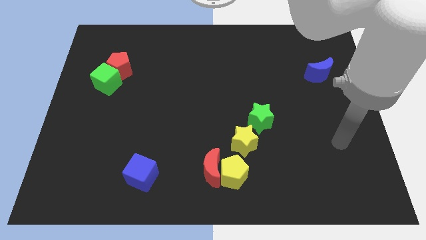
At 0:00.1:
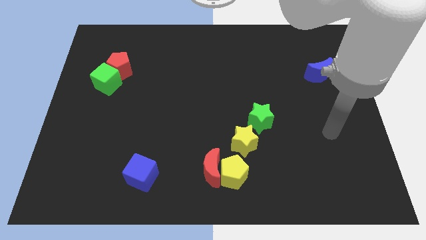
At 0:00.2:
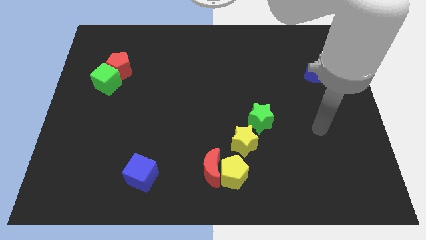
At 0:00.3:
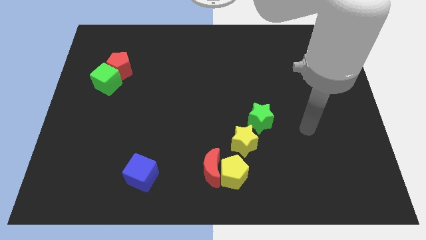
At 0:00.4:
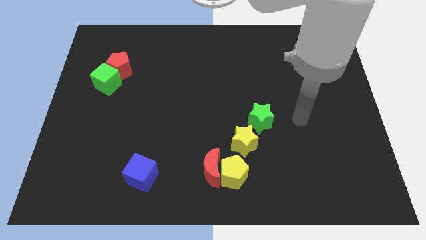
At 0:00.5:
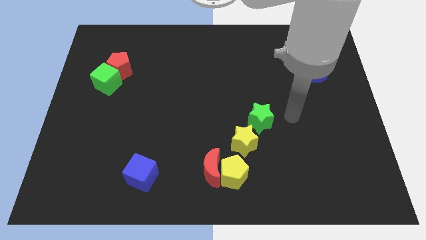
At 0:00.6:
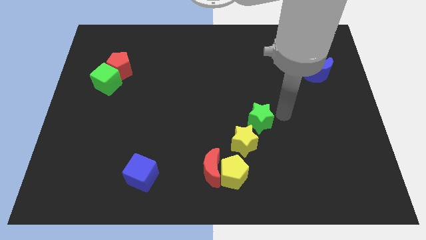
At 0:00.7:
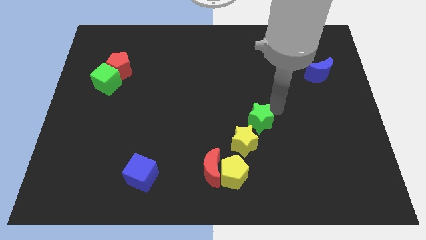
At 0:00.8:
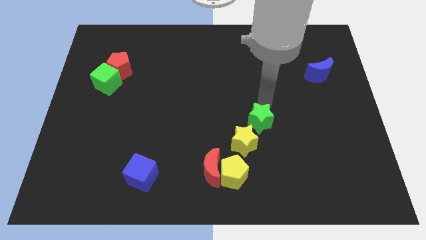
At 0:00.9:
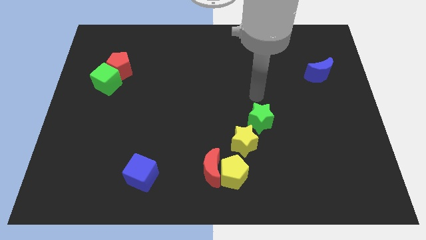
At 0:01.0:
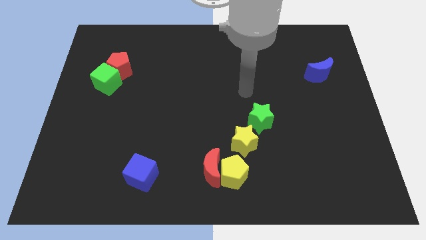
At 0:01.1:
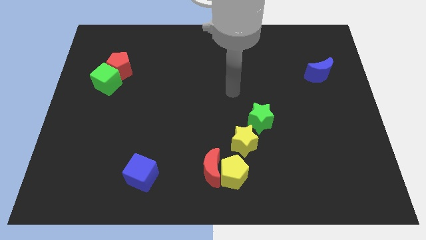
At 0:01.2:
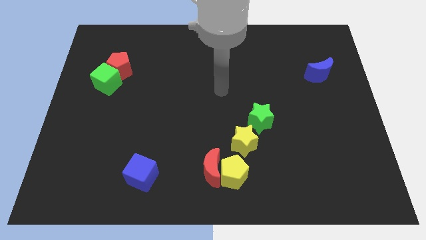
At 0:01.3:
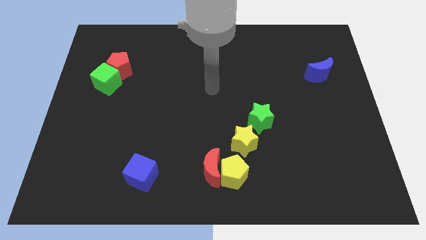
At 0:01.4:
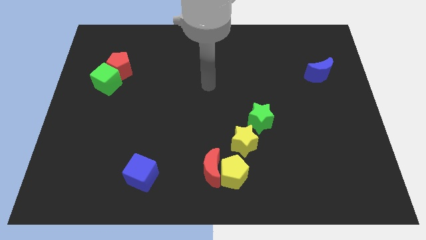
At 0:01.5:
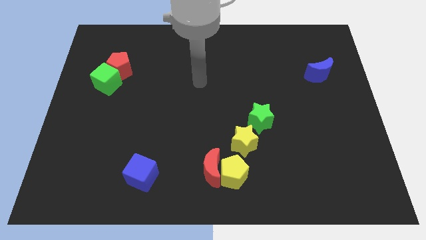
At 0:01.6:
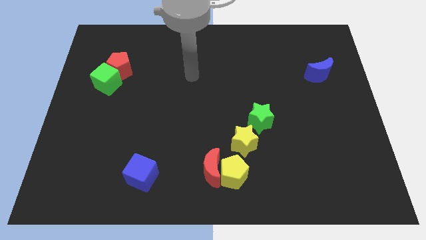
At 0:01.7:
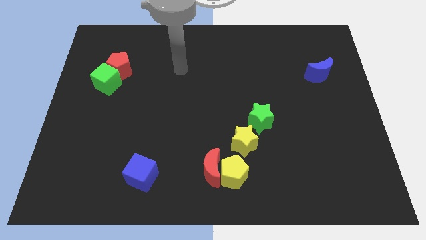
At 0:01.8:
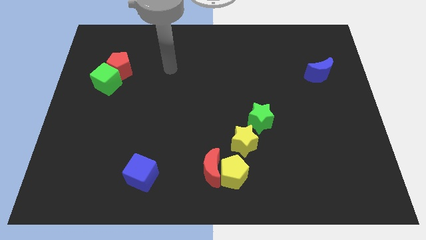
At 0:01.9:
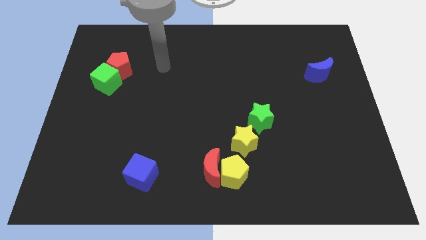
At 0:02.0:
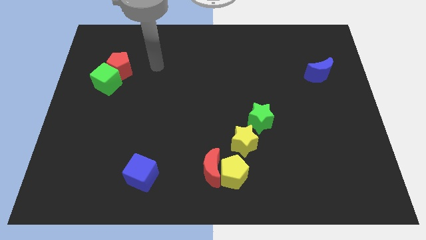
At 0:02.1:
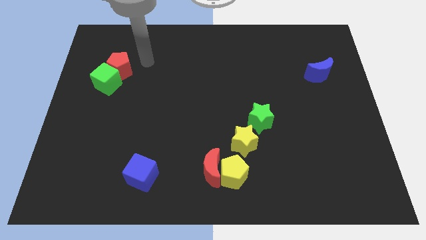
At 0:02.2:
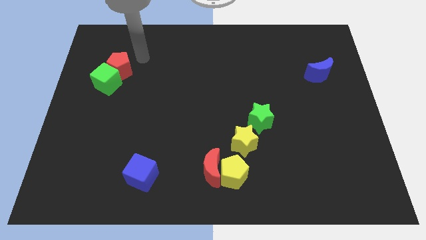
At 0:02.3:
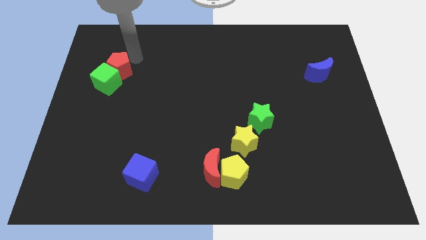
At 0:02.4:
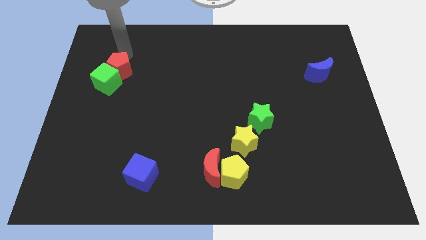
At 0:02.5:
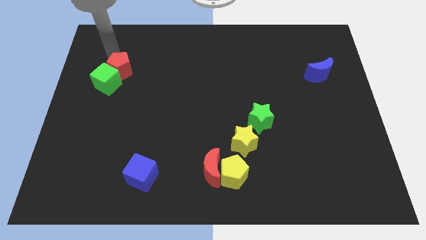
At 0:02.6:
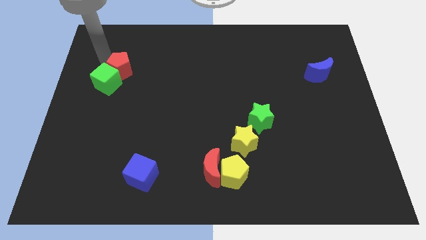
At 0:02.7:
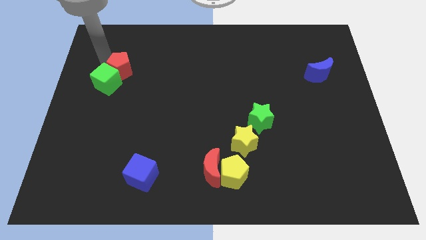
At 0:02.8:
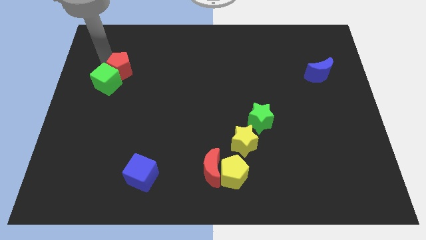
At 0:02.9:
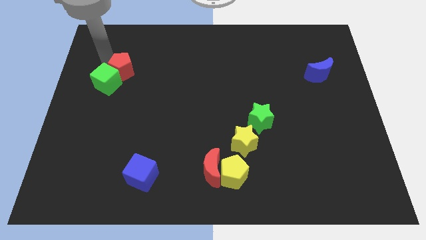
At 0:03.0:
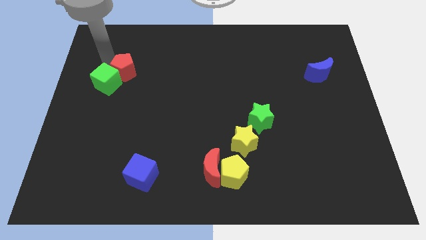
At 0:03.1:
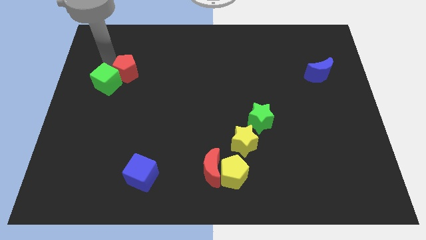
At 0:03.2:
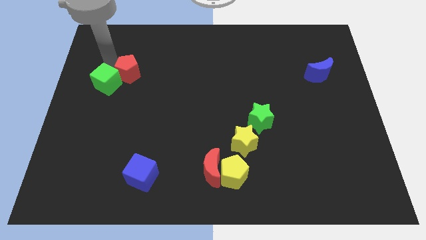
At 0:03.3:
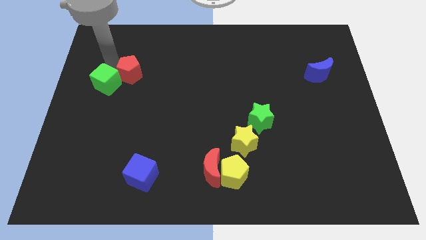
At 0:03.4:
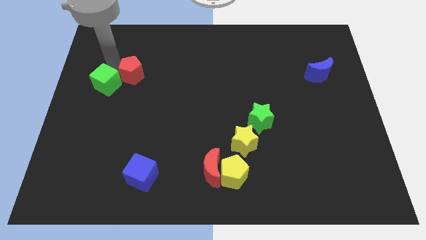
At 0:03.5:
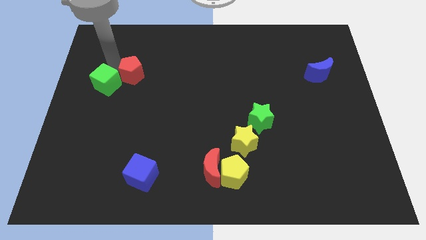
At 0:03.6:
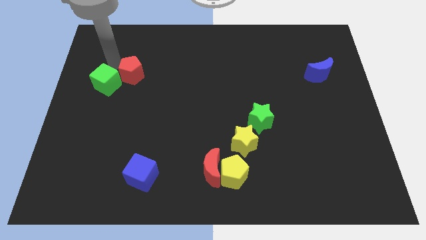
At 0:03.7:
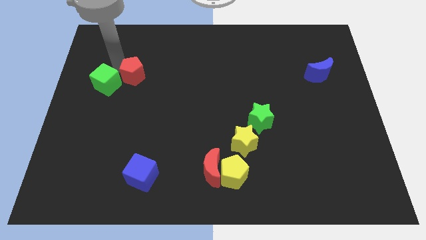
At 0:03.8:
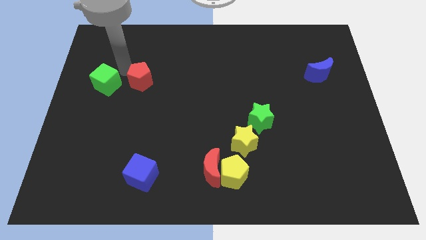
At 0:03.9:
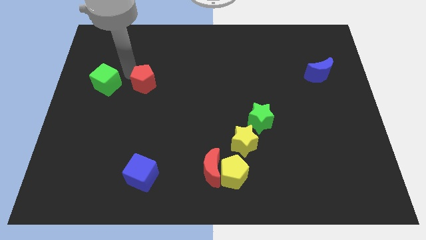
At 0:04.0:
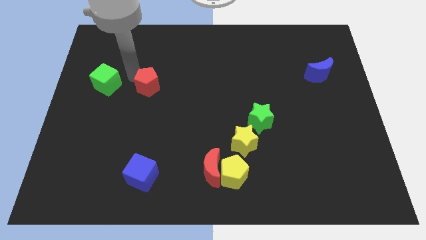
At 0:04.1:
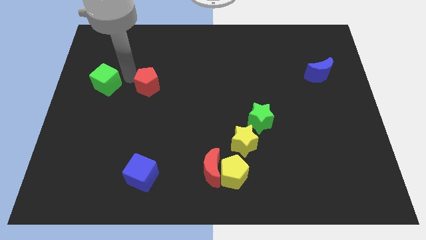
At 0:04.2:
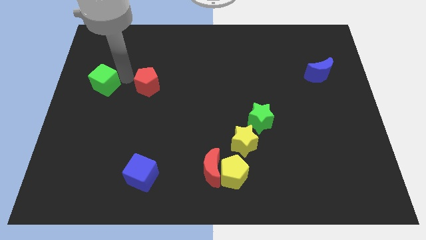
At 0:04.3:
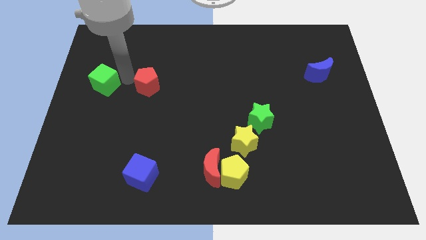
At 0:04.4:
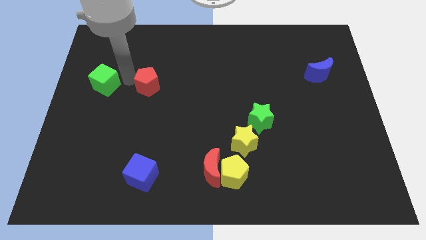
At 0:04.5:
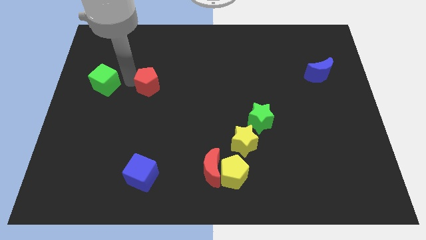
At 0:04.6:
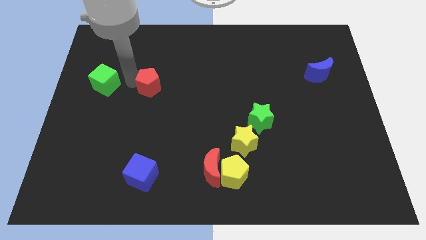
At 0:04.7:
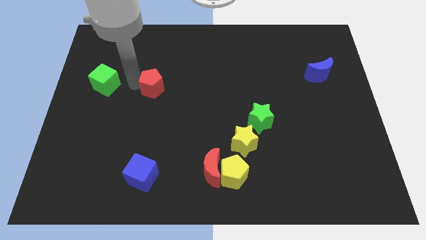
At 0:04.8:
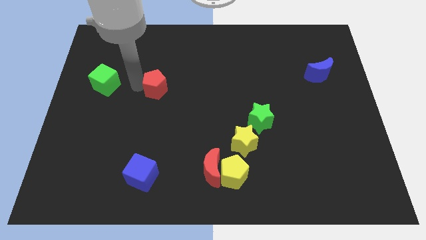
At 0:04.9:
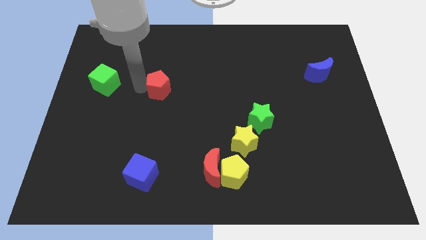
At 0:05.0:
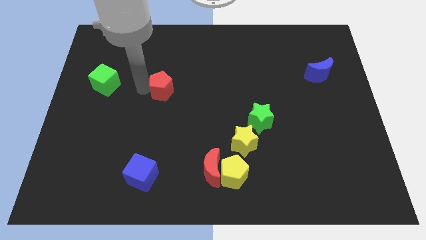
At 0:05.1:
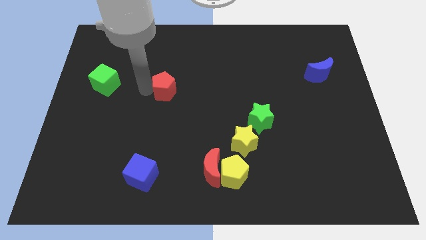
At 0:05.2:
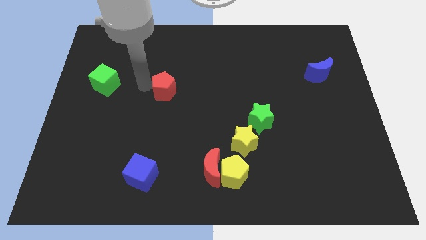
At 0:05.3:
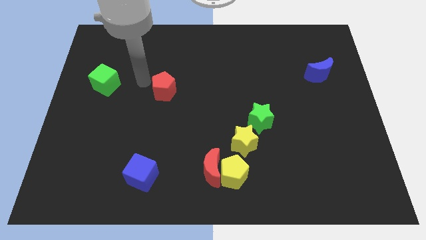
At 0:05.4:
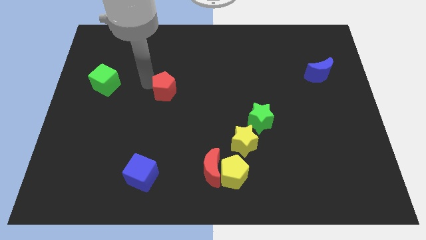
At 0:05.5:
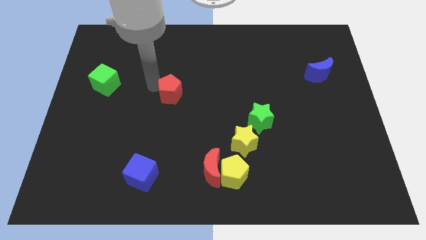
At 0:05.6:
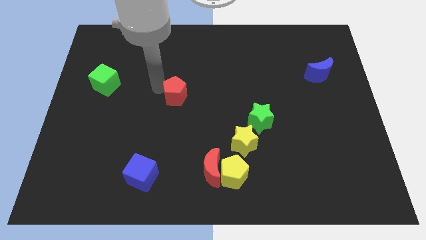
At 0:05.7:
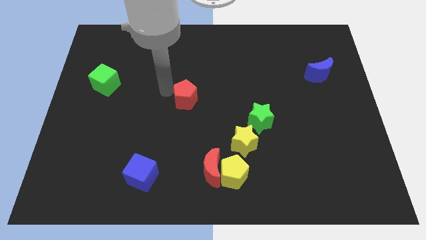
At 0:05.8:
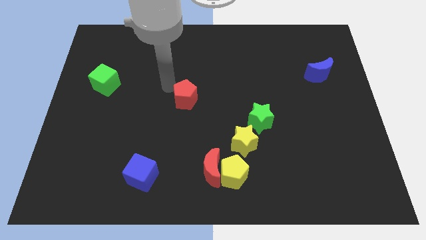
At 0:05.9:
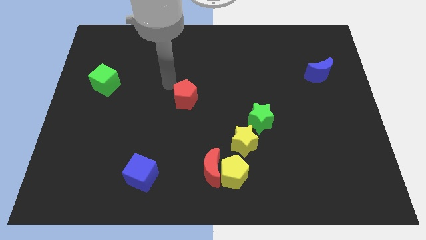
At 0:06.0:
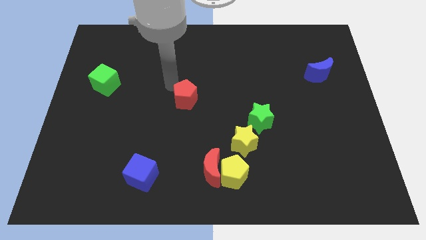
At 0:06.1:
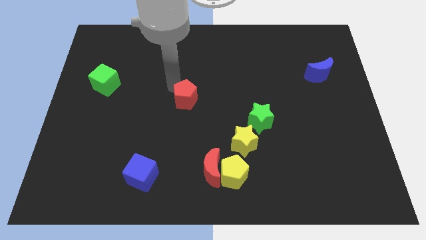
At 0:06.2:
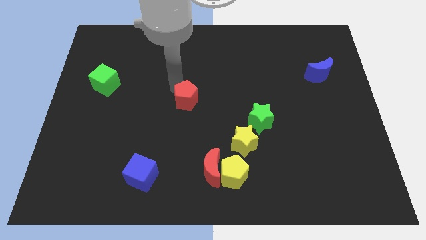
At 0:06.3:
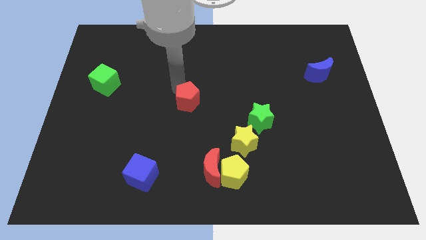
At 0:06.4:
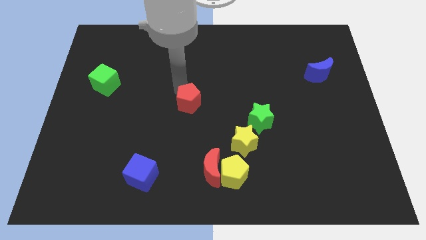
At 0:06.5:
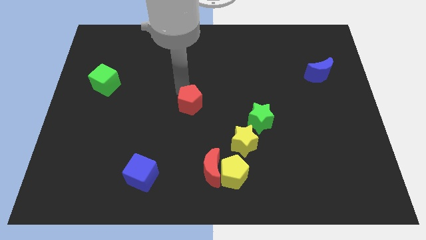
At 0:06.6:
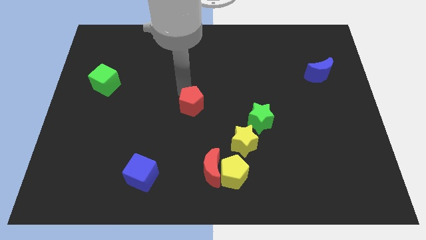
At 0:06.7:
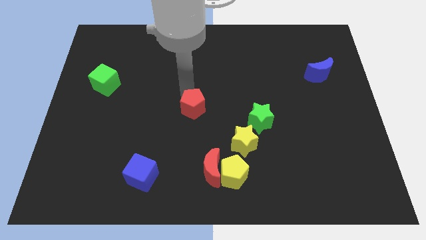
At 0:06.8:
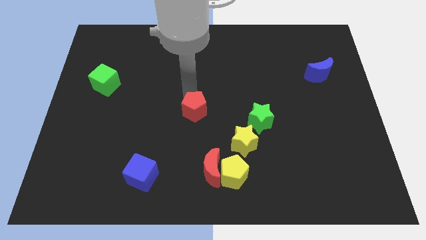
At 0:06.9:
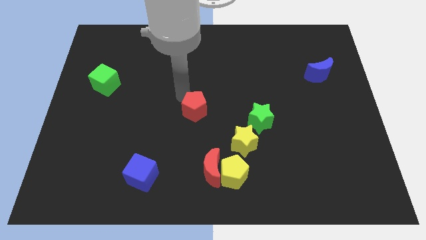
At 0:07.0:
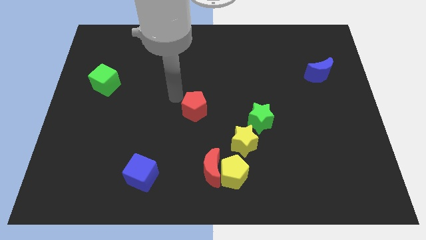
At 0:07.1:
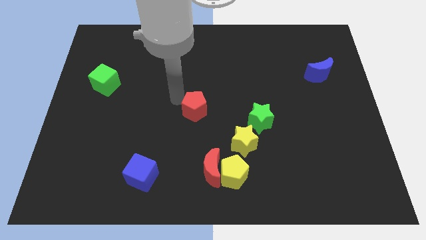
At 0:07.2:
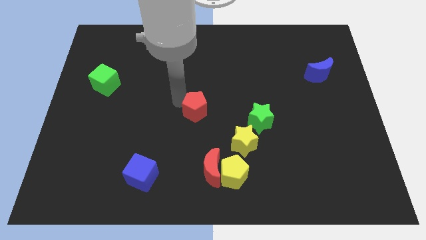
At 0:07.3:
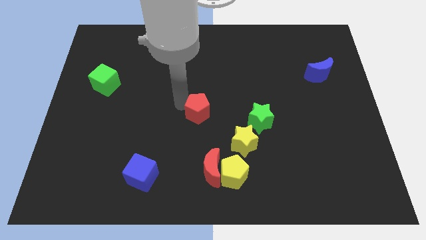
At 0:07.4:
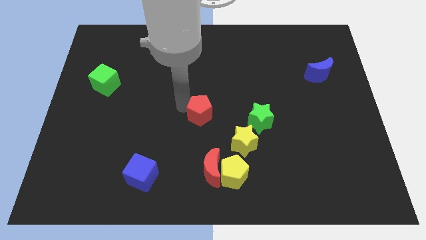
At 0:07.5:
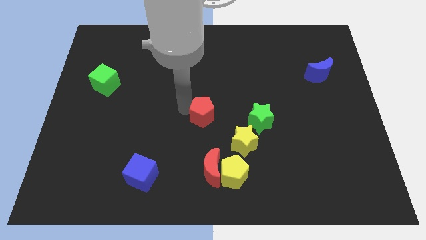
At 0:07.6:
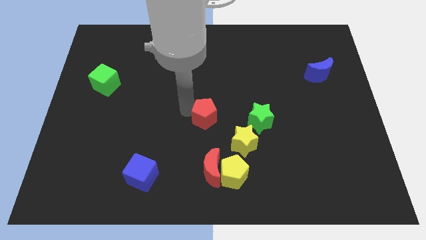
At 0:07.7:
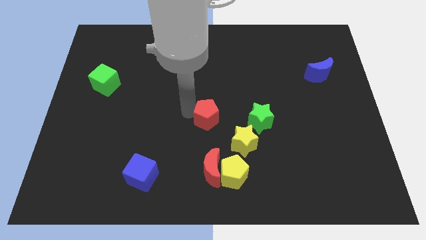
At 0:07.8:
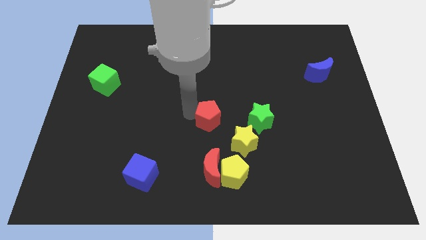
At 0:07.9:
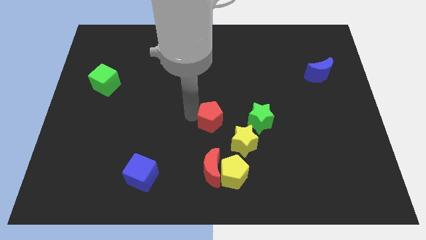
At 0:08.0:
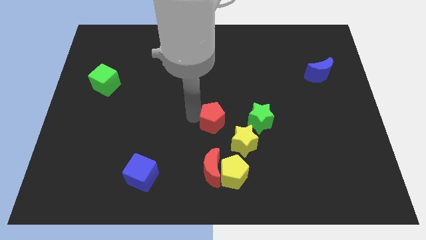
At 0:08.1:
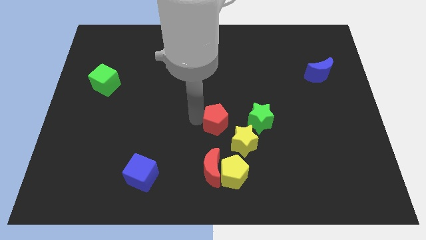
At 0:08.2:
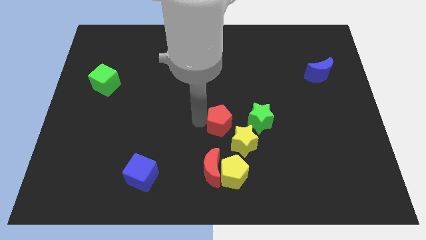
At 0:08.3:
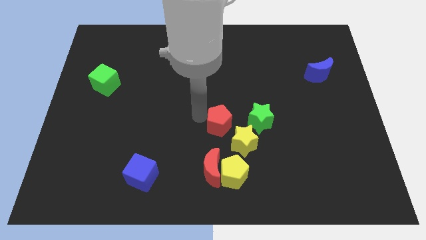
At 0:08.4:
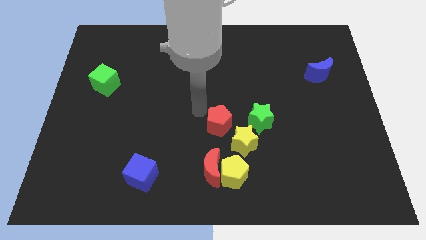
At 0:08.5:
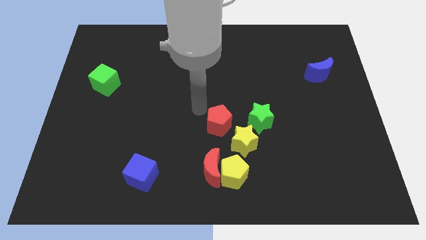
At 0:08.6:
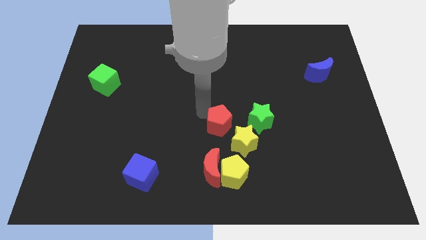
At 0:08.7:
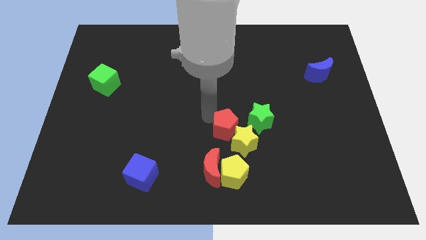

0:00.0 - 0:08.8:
put the red pentagon to the yellow star
